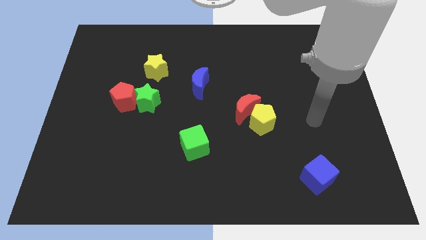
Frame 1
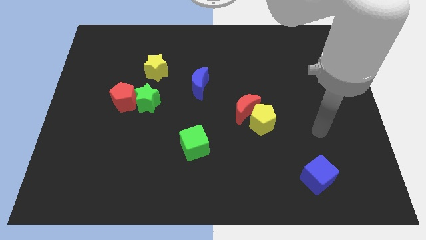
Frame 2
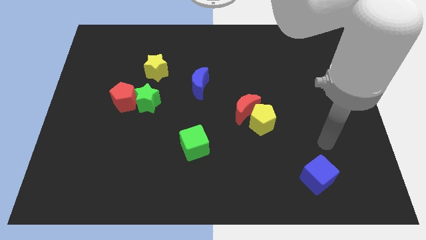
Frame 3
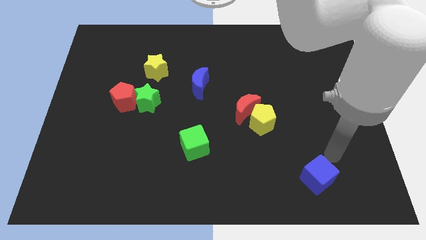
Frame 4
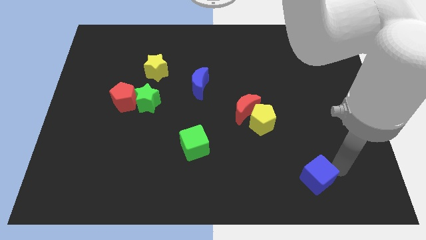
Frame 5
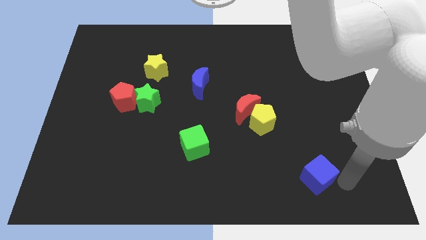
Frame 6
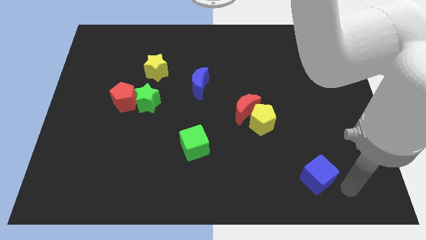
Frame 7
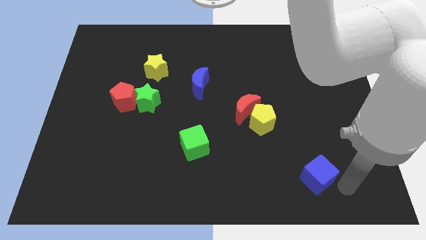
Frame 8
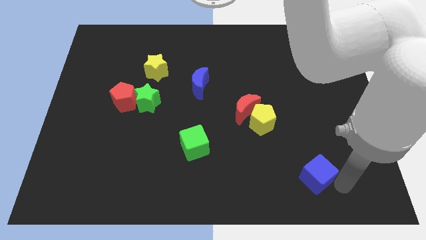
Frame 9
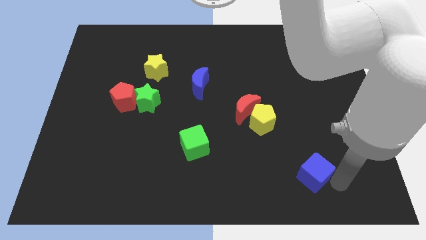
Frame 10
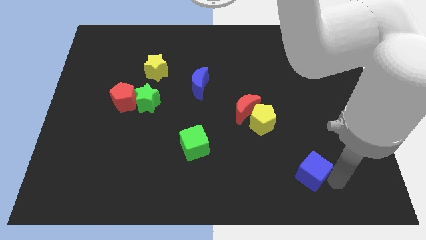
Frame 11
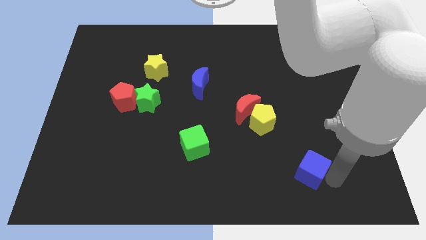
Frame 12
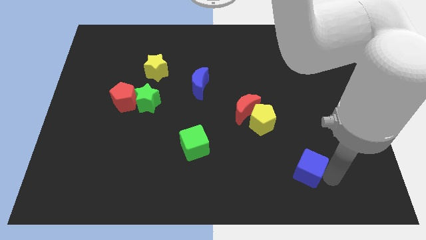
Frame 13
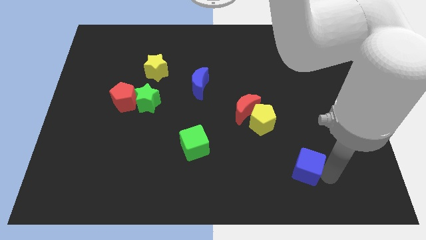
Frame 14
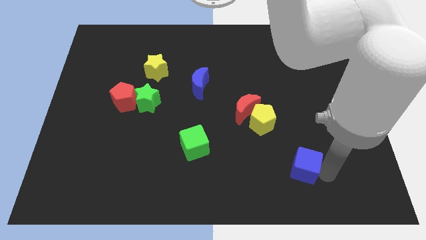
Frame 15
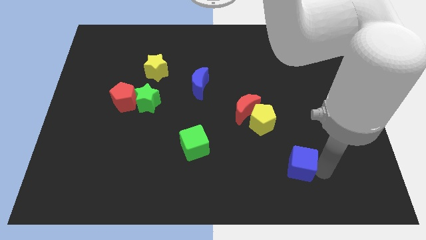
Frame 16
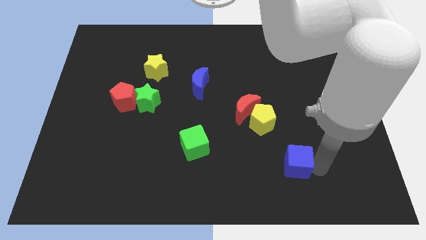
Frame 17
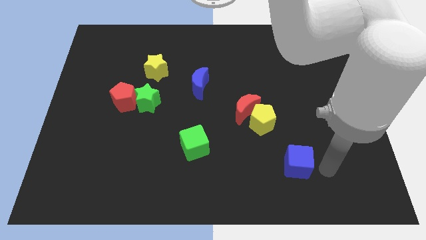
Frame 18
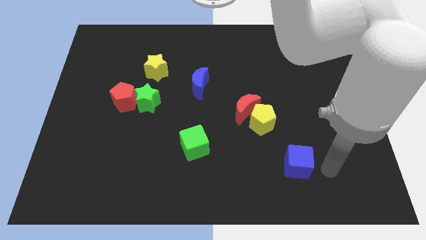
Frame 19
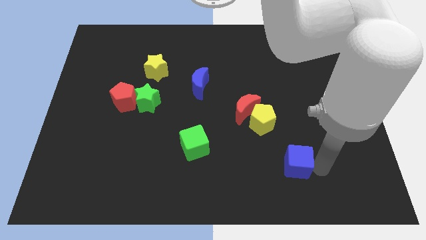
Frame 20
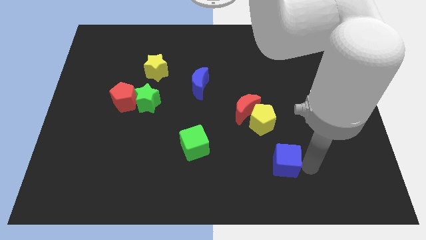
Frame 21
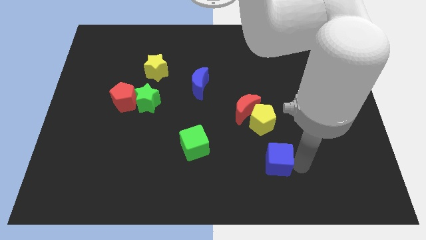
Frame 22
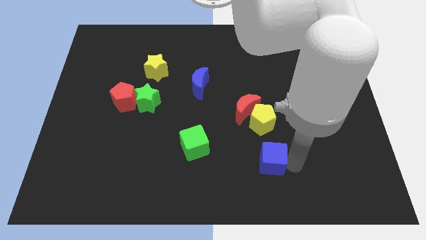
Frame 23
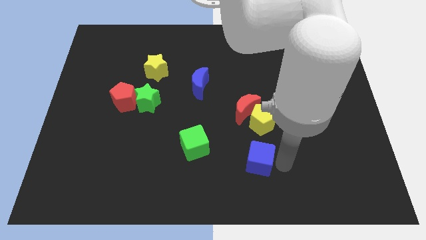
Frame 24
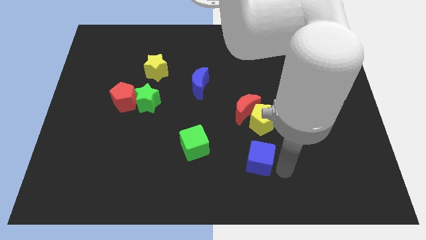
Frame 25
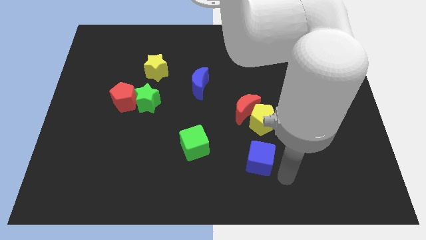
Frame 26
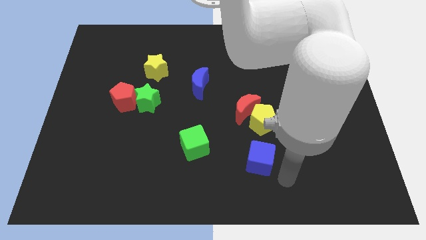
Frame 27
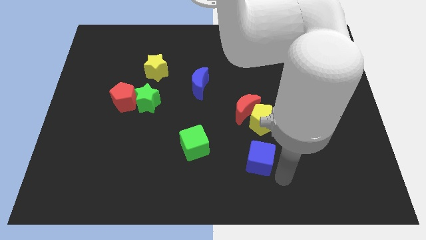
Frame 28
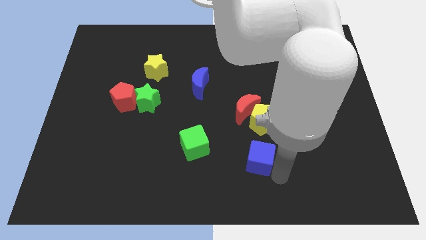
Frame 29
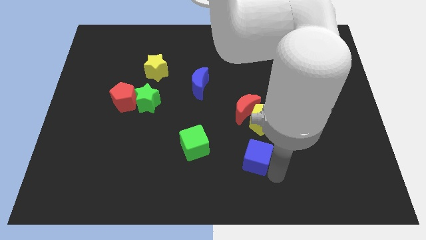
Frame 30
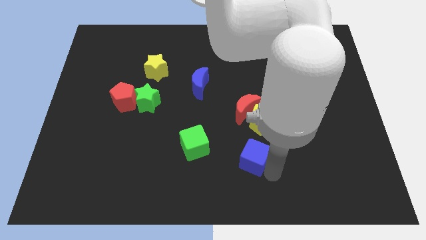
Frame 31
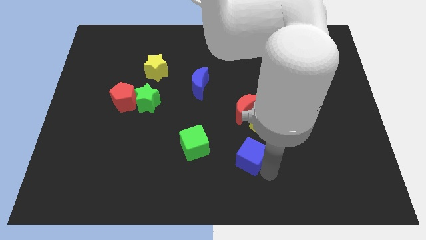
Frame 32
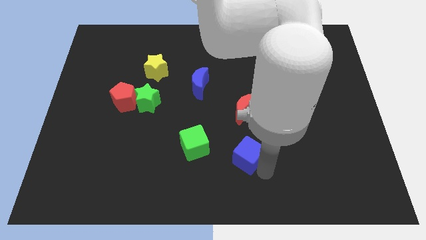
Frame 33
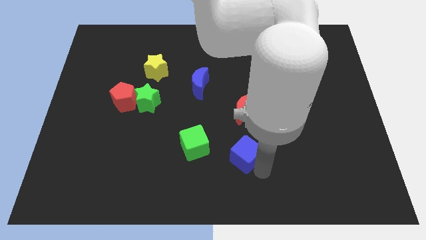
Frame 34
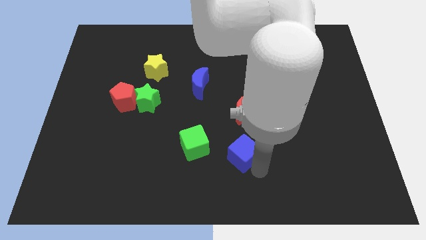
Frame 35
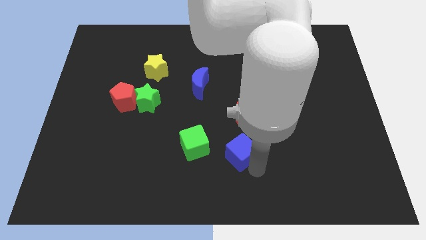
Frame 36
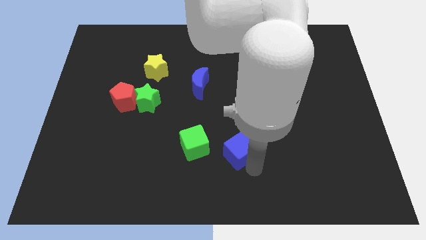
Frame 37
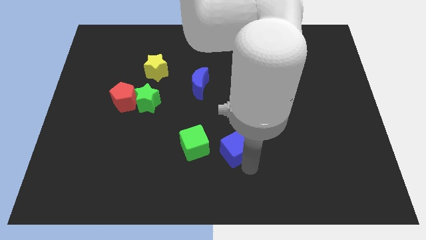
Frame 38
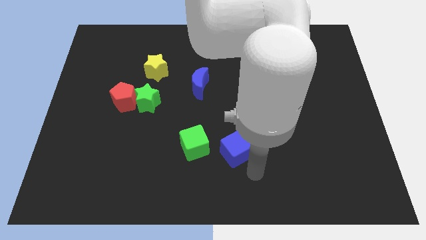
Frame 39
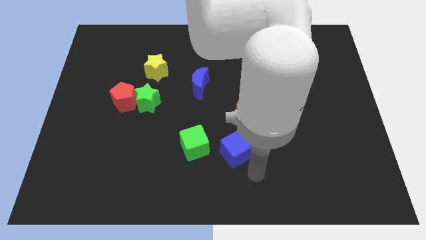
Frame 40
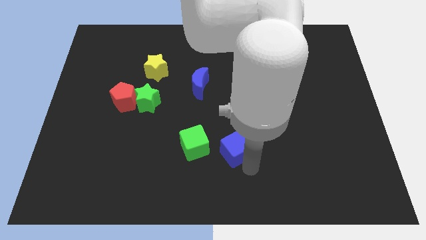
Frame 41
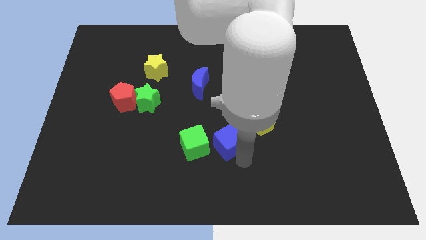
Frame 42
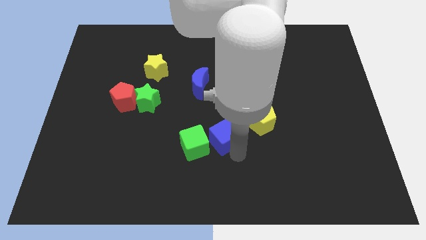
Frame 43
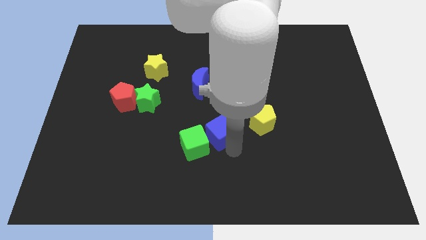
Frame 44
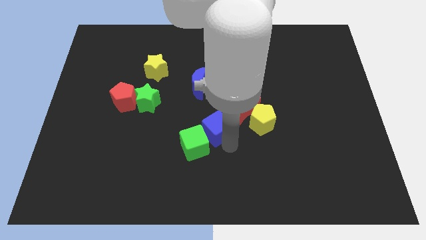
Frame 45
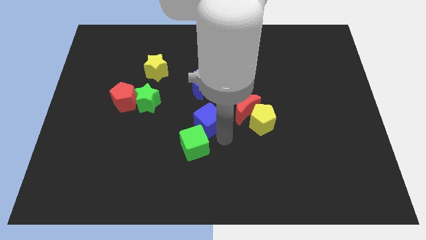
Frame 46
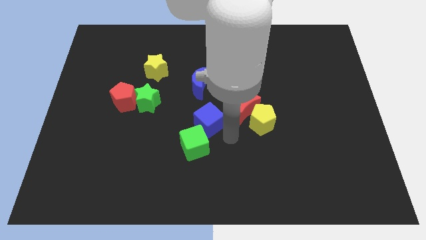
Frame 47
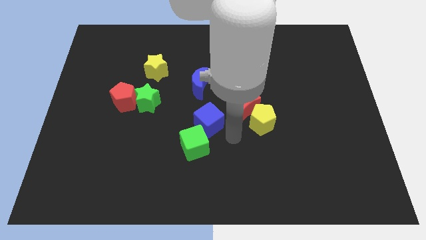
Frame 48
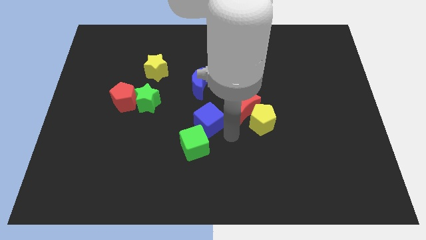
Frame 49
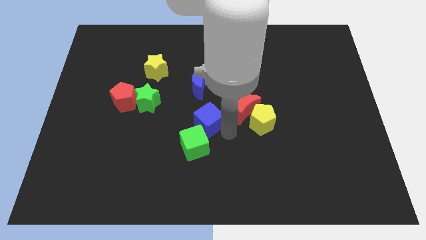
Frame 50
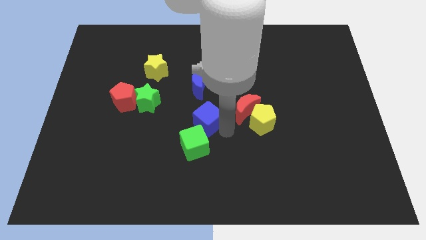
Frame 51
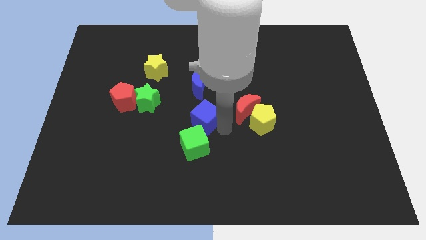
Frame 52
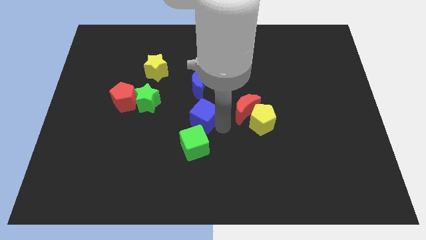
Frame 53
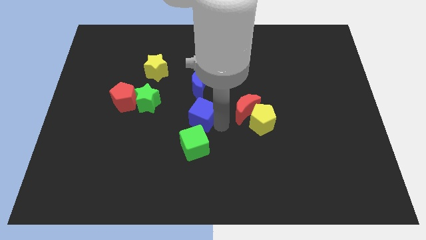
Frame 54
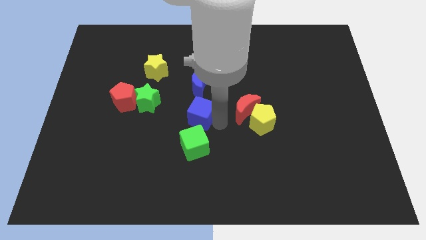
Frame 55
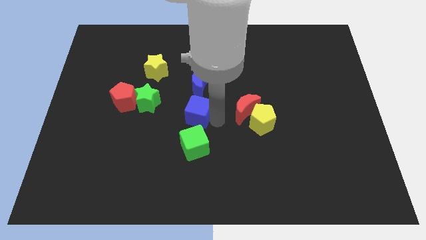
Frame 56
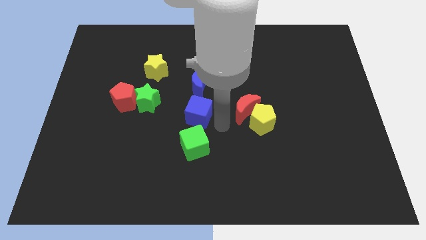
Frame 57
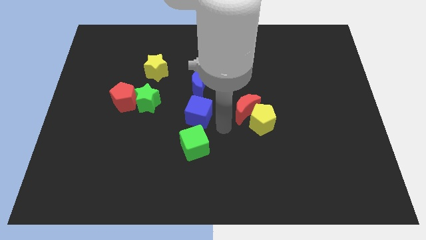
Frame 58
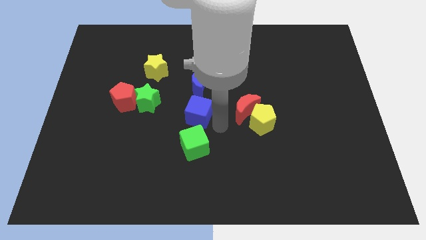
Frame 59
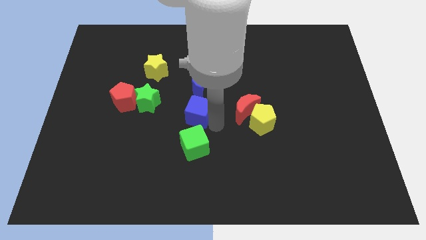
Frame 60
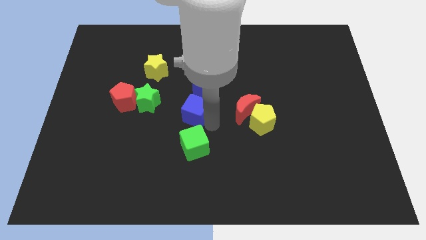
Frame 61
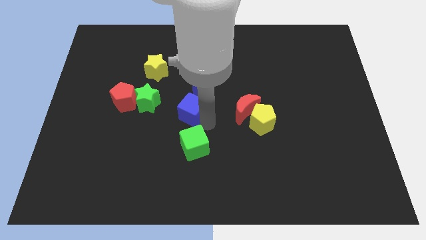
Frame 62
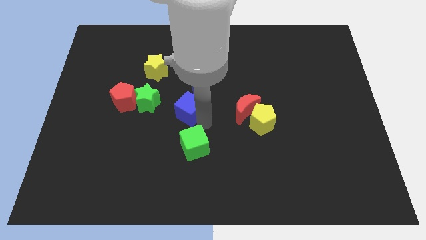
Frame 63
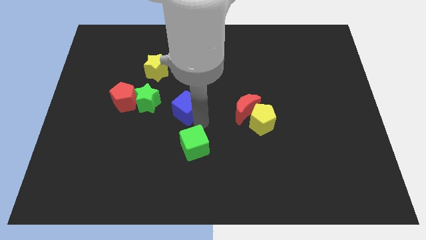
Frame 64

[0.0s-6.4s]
push the blue cube just right of the red pentagon

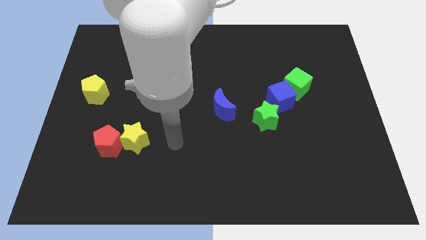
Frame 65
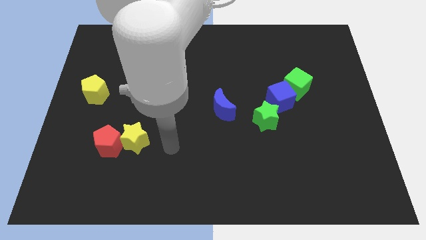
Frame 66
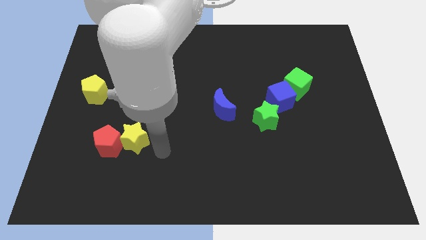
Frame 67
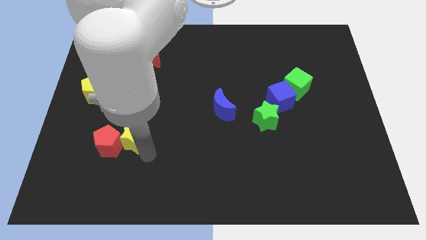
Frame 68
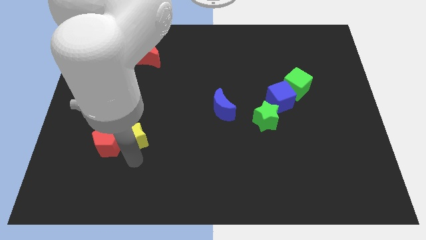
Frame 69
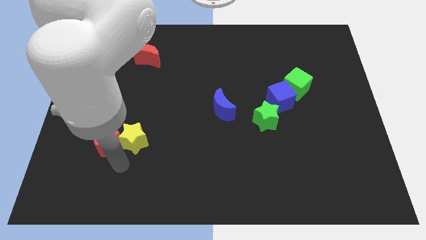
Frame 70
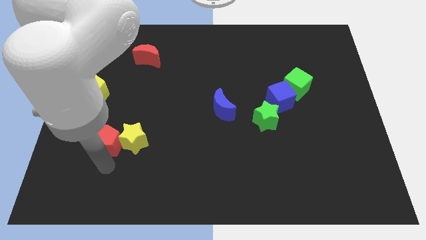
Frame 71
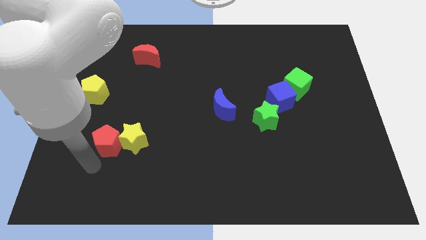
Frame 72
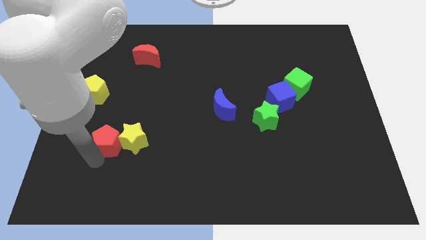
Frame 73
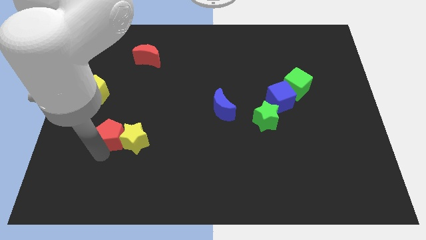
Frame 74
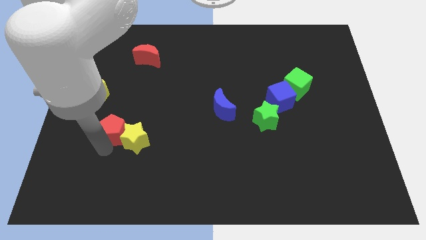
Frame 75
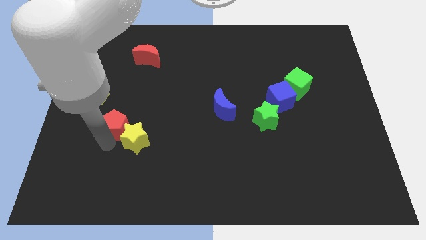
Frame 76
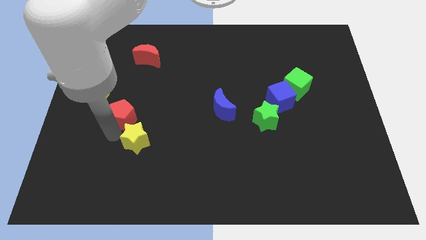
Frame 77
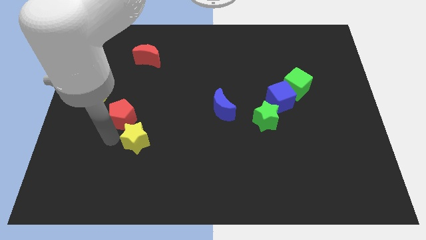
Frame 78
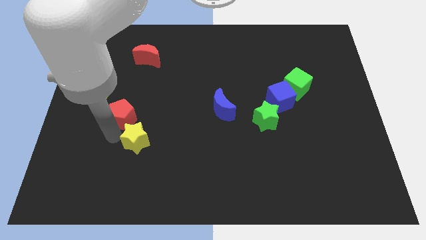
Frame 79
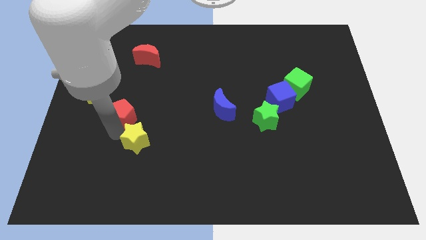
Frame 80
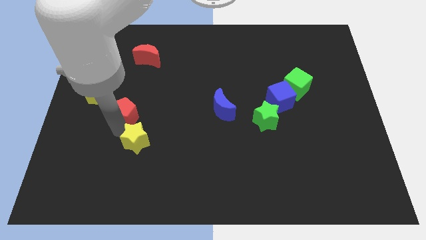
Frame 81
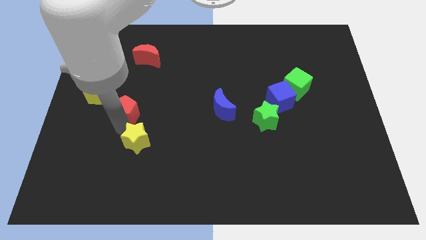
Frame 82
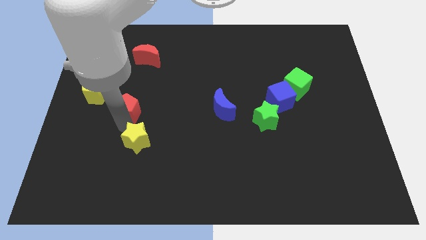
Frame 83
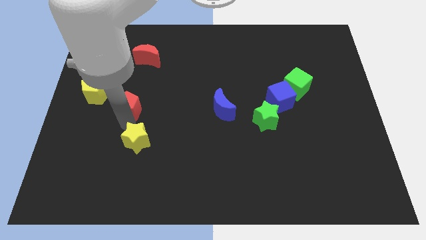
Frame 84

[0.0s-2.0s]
slide the red pentagon to the right of the yellow pentagon
